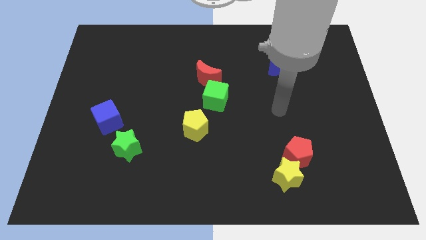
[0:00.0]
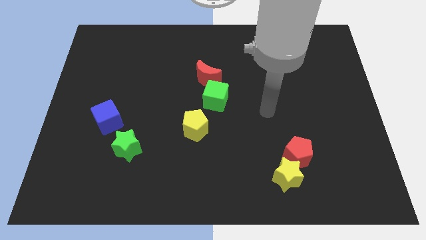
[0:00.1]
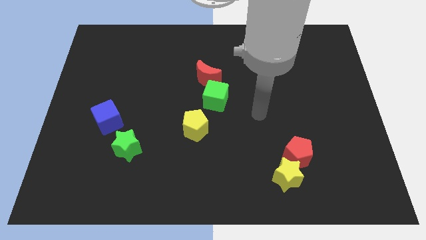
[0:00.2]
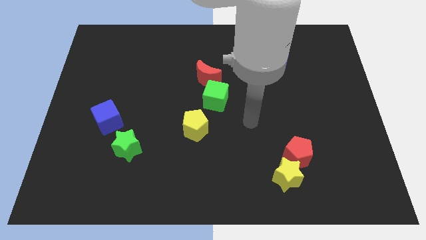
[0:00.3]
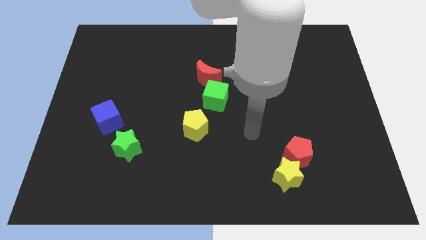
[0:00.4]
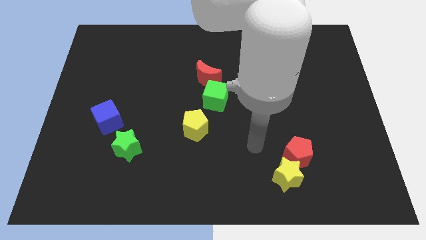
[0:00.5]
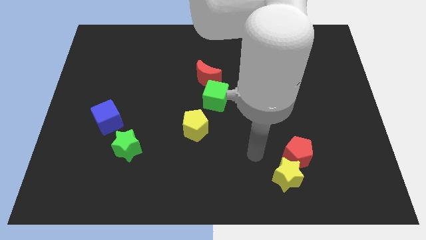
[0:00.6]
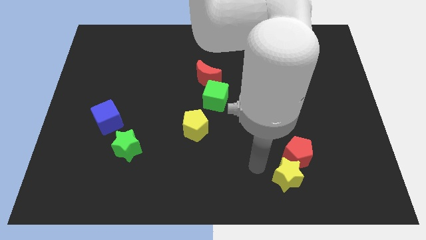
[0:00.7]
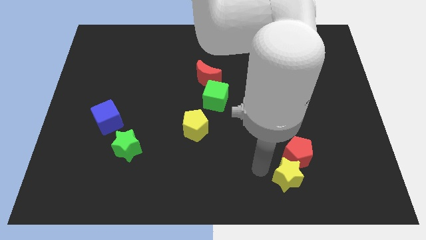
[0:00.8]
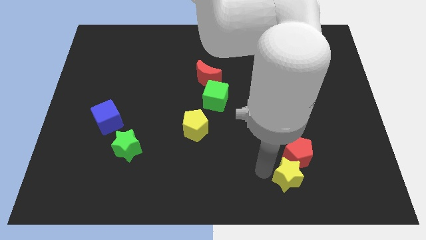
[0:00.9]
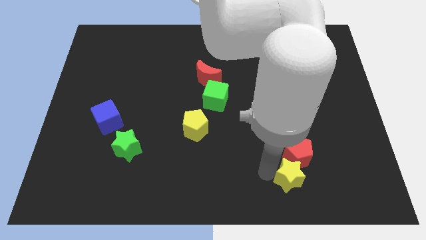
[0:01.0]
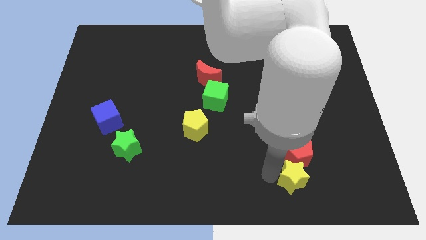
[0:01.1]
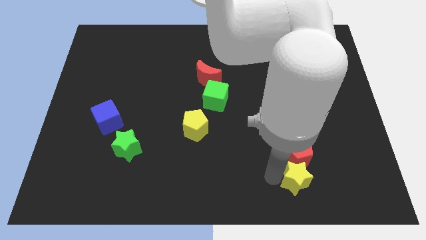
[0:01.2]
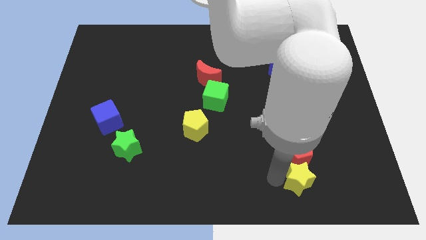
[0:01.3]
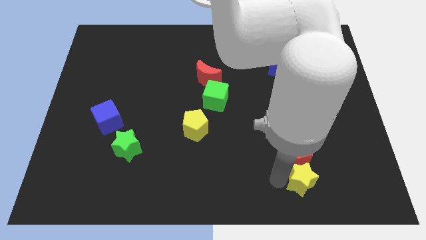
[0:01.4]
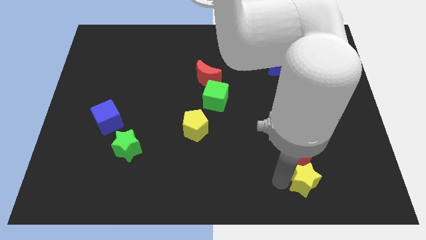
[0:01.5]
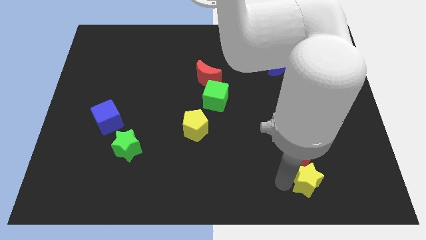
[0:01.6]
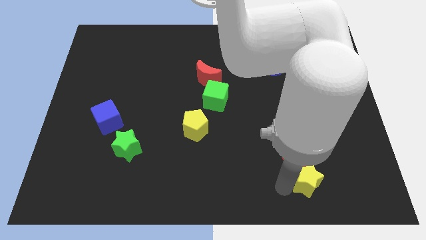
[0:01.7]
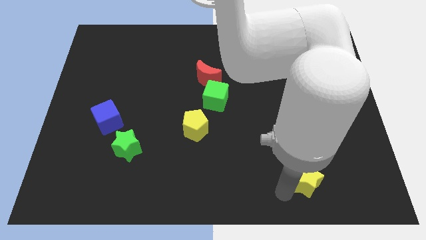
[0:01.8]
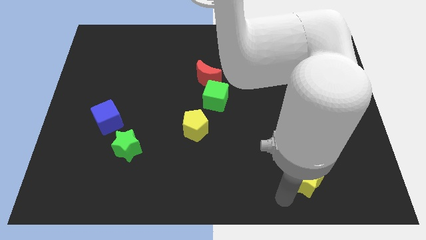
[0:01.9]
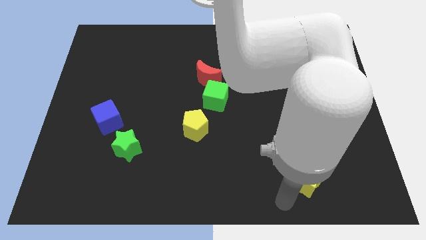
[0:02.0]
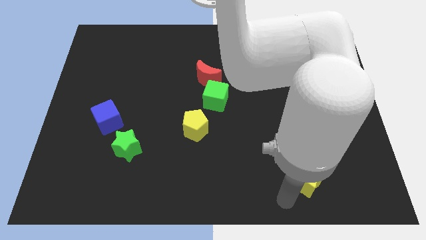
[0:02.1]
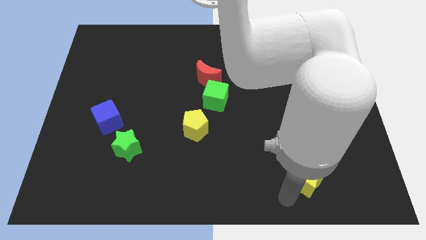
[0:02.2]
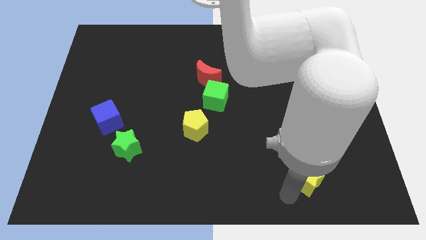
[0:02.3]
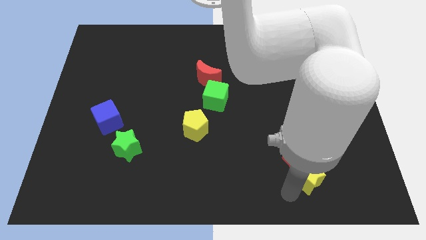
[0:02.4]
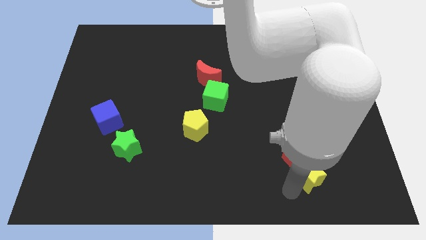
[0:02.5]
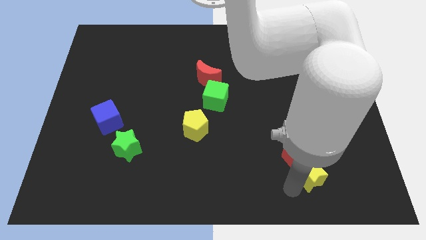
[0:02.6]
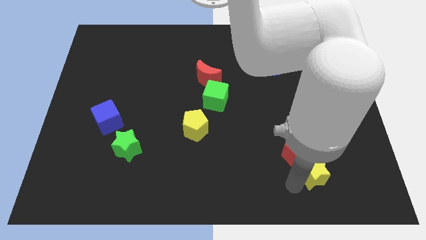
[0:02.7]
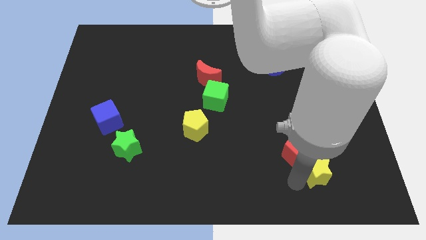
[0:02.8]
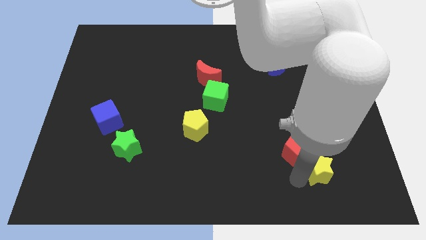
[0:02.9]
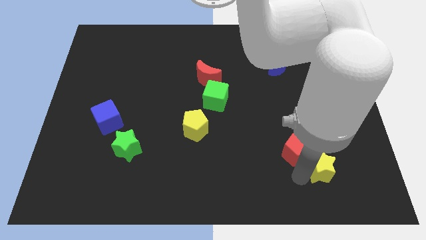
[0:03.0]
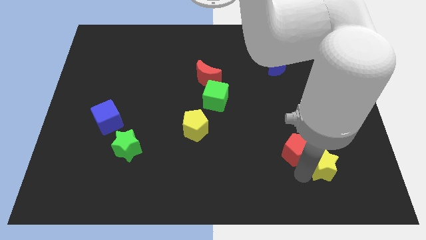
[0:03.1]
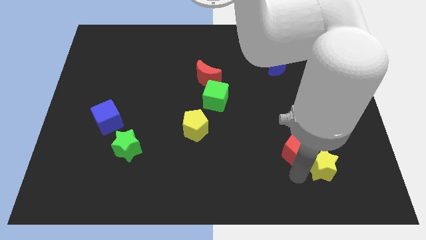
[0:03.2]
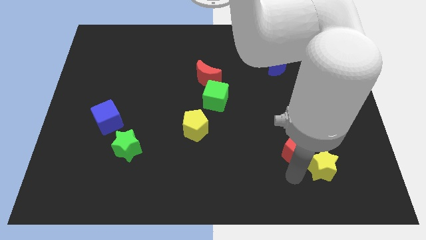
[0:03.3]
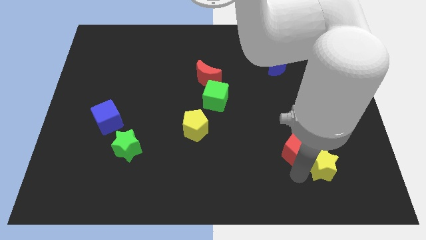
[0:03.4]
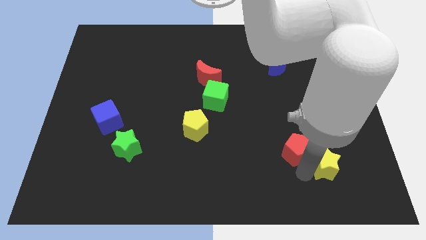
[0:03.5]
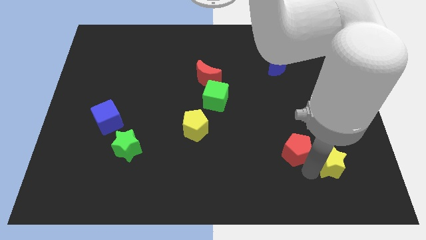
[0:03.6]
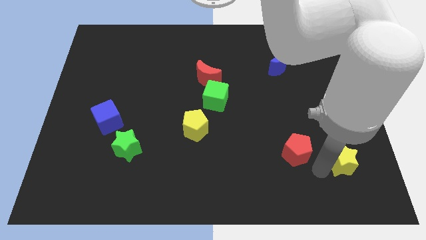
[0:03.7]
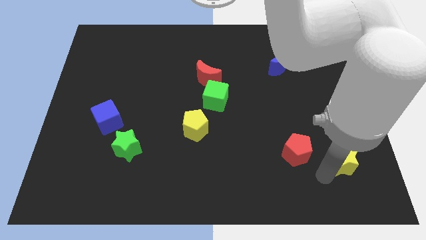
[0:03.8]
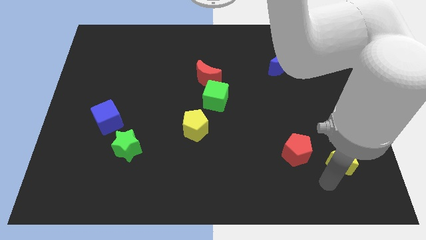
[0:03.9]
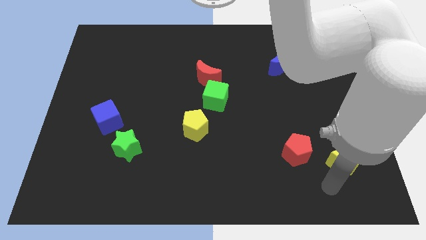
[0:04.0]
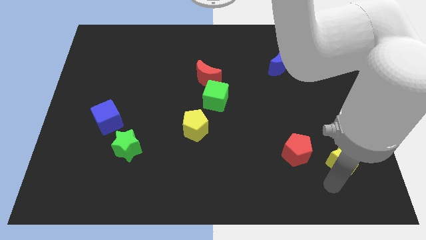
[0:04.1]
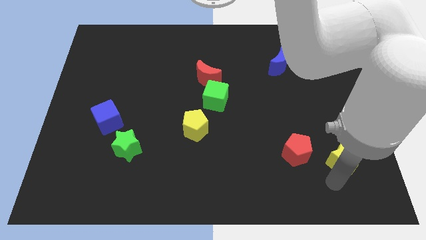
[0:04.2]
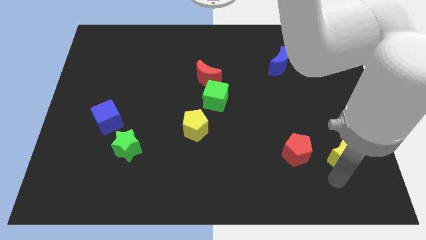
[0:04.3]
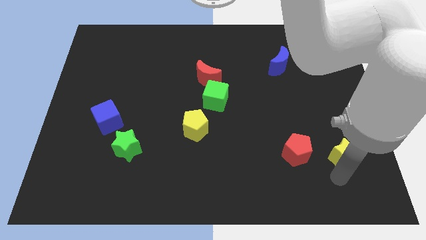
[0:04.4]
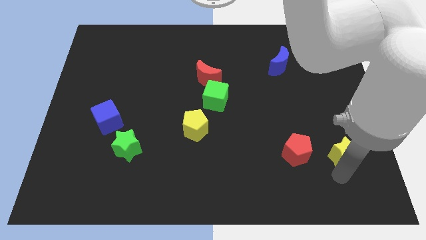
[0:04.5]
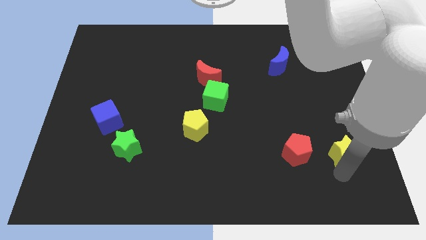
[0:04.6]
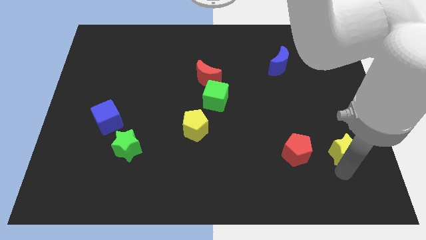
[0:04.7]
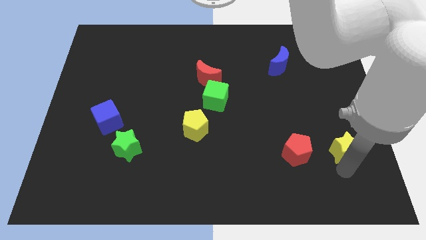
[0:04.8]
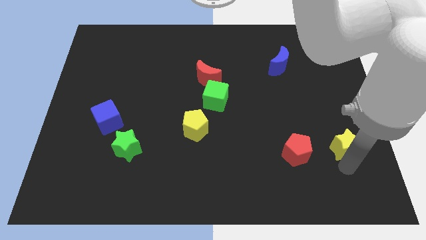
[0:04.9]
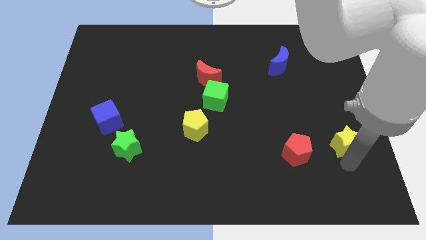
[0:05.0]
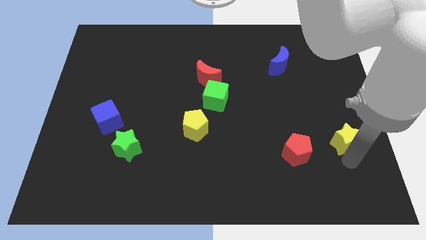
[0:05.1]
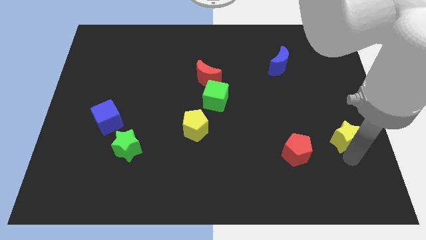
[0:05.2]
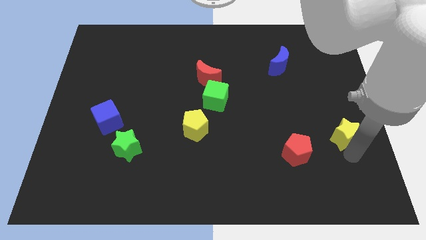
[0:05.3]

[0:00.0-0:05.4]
push the yellow star to the right side of the board

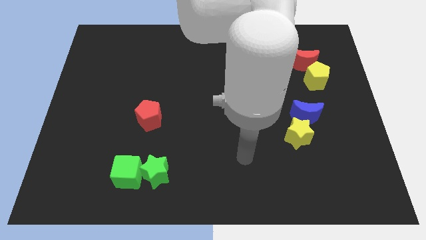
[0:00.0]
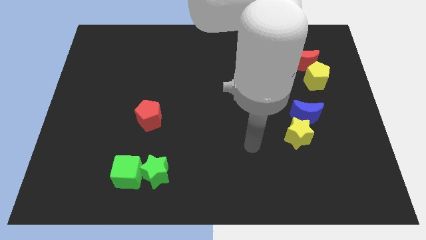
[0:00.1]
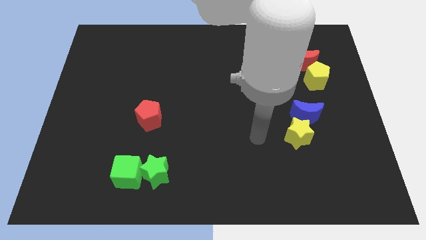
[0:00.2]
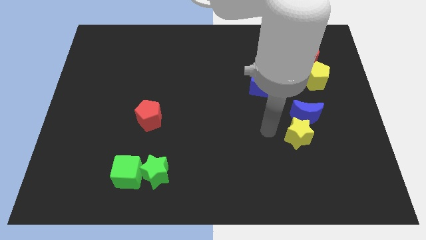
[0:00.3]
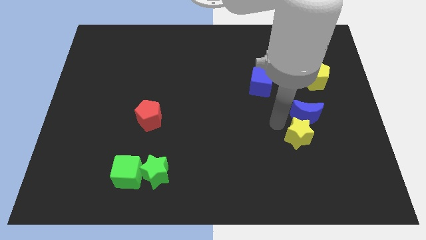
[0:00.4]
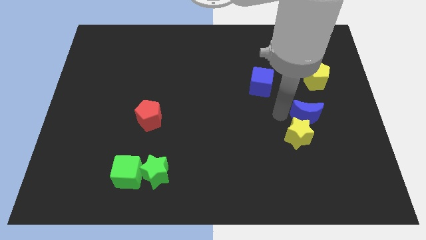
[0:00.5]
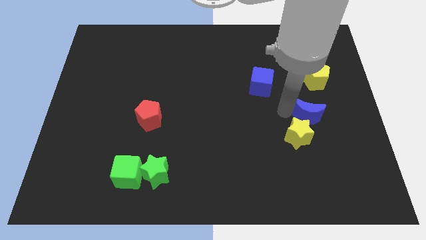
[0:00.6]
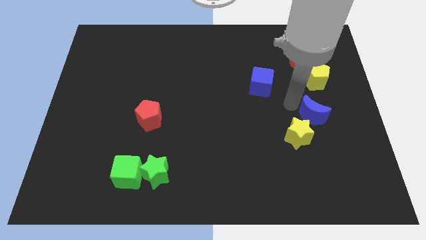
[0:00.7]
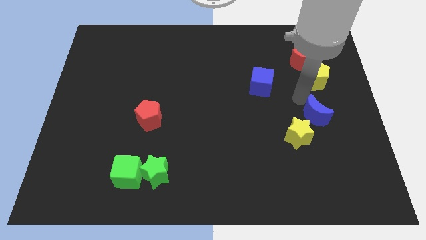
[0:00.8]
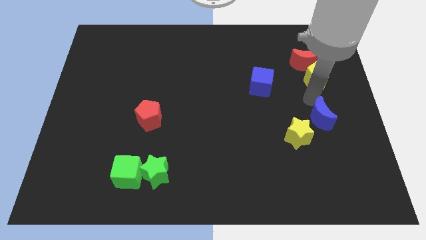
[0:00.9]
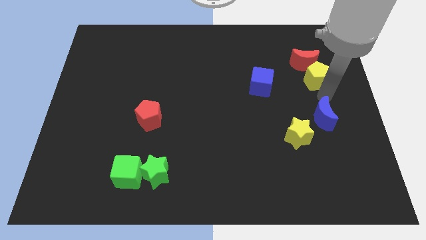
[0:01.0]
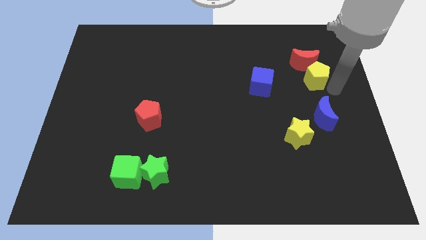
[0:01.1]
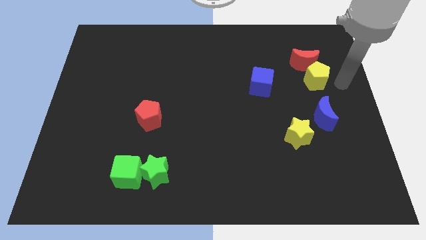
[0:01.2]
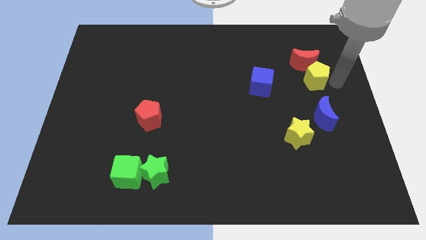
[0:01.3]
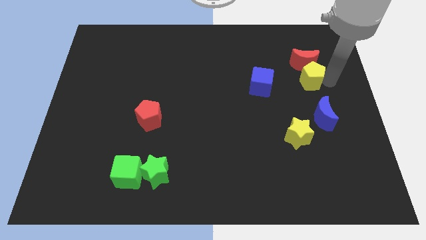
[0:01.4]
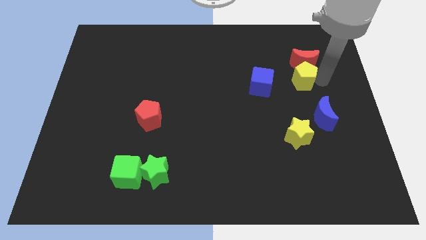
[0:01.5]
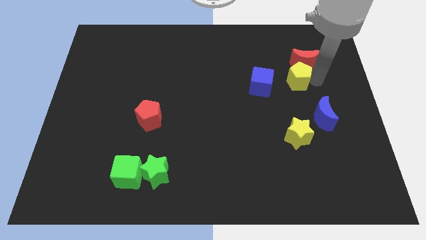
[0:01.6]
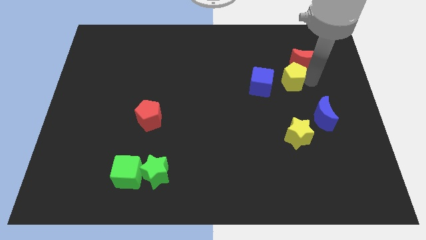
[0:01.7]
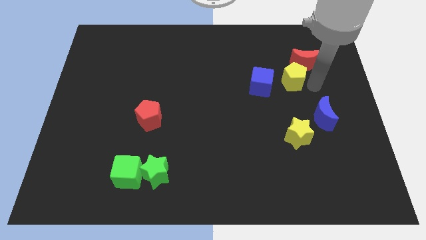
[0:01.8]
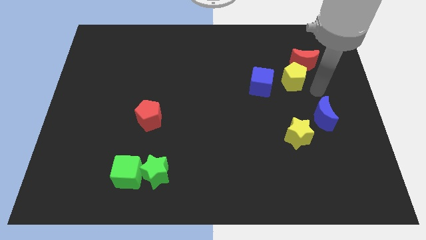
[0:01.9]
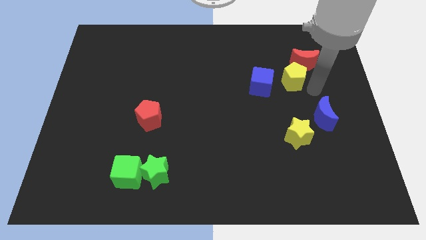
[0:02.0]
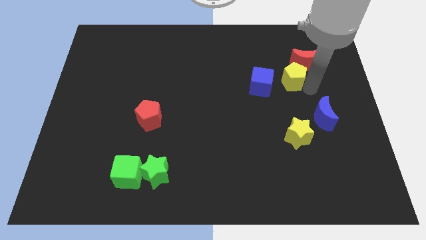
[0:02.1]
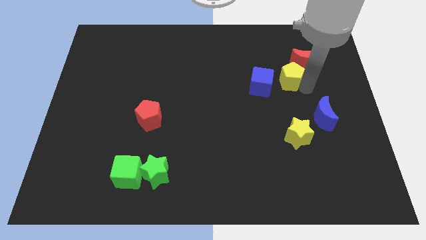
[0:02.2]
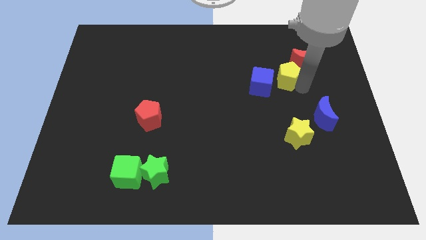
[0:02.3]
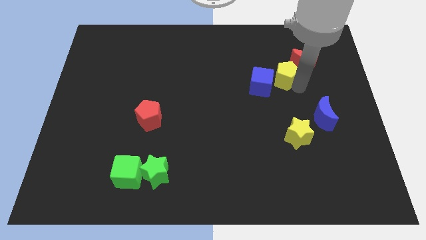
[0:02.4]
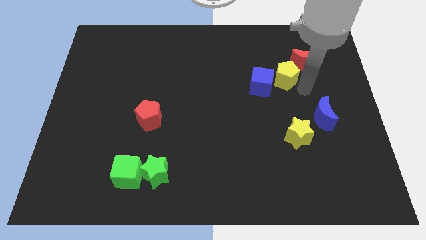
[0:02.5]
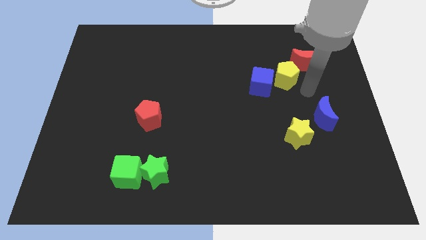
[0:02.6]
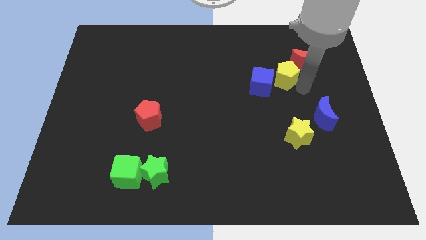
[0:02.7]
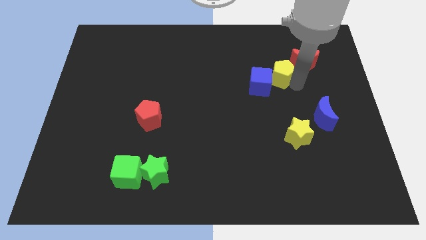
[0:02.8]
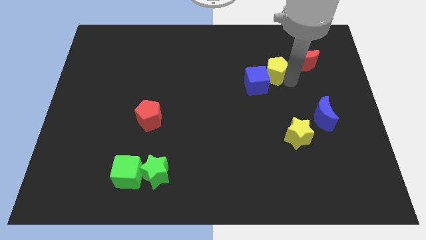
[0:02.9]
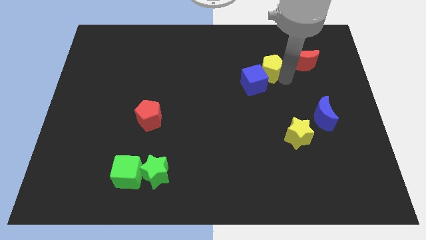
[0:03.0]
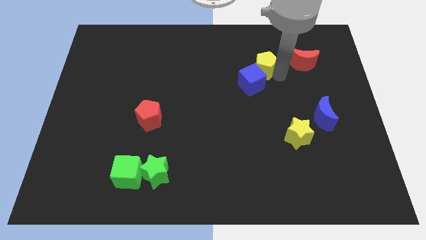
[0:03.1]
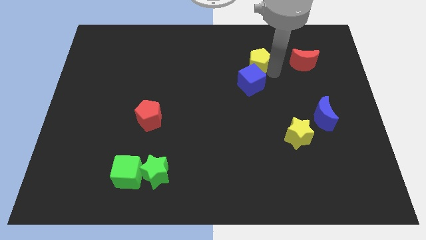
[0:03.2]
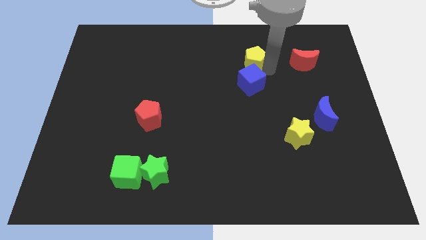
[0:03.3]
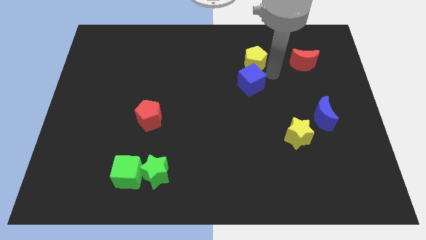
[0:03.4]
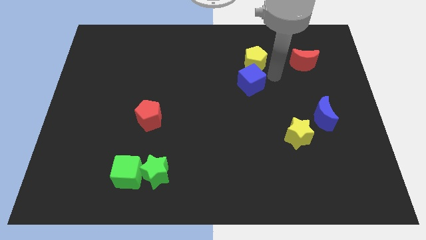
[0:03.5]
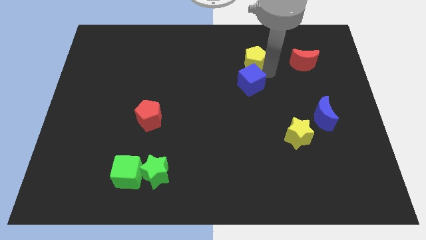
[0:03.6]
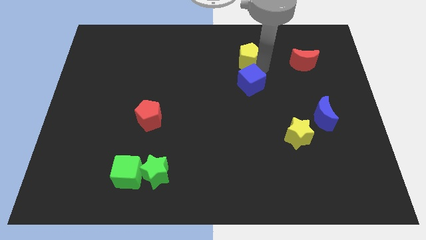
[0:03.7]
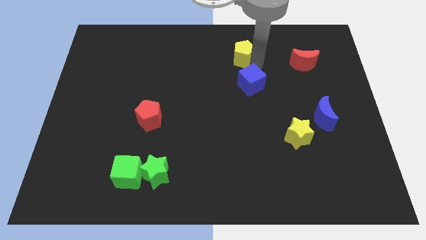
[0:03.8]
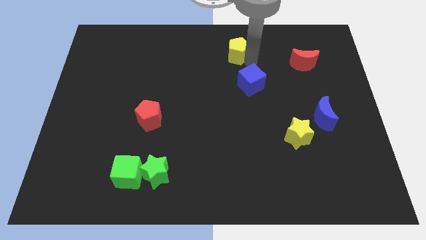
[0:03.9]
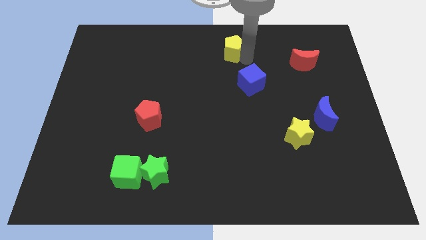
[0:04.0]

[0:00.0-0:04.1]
slide the yellow pentagon to the top side
